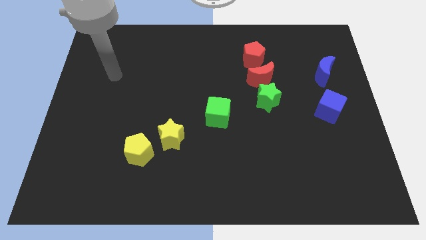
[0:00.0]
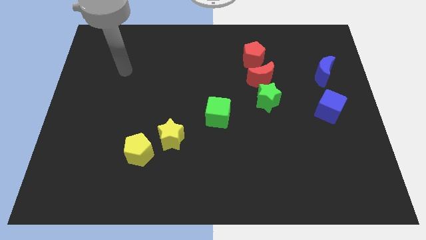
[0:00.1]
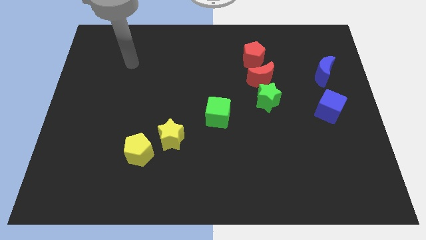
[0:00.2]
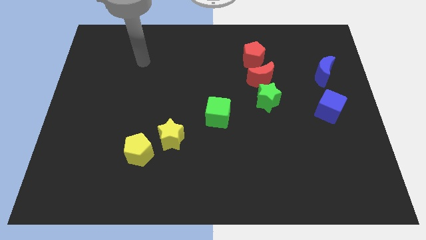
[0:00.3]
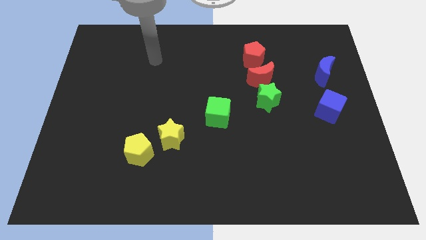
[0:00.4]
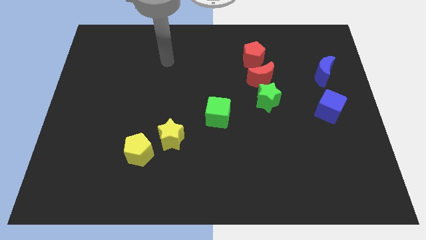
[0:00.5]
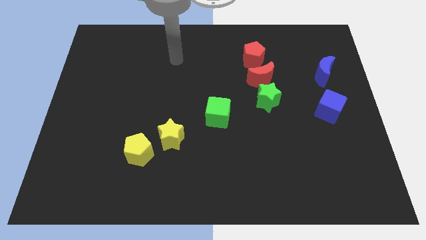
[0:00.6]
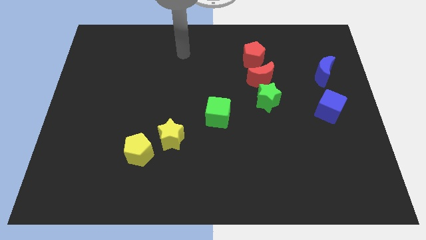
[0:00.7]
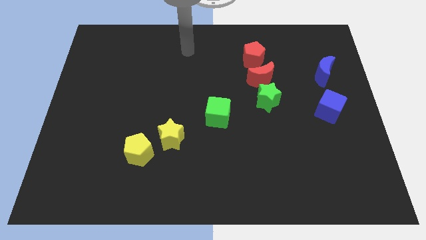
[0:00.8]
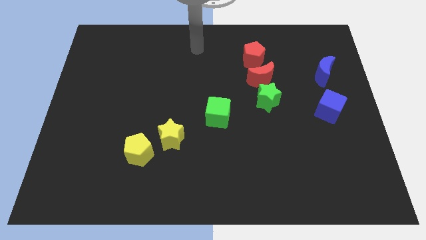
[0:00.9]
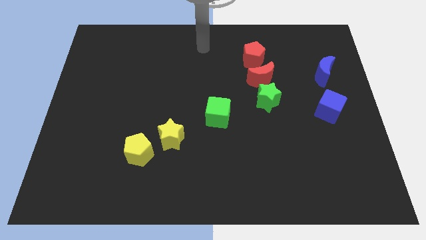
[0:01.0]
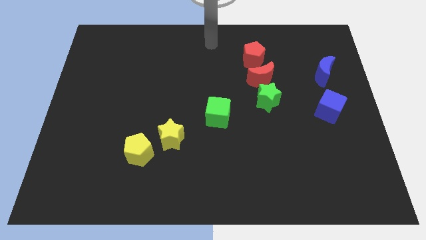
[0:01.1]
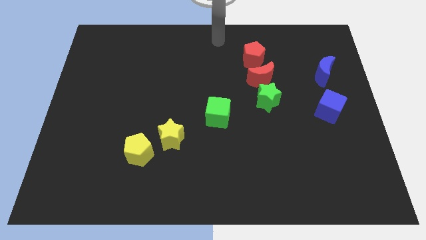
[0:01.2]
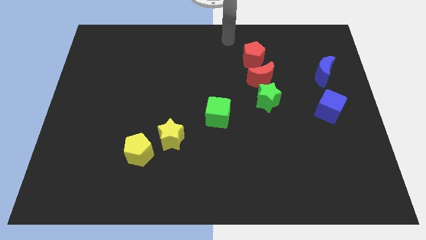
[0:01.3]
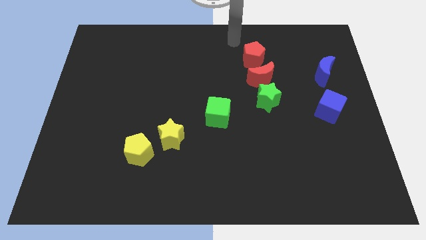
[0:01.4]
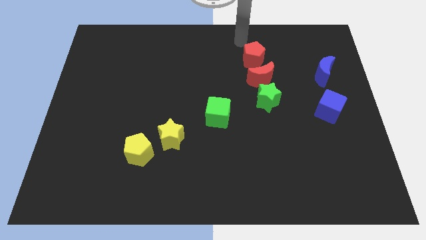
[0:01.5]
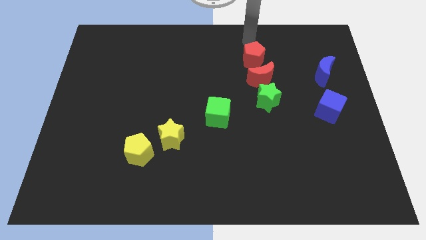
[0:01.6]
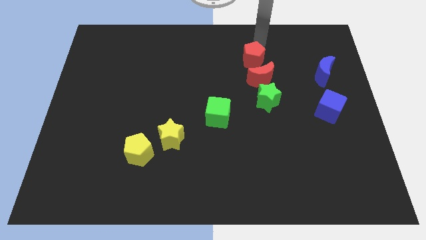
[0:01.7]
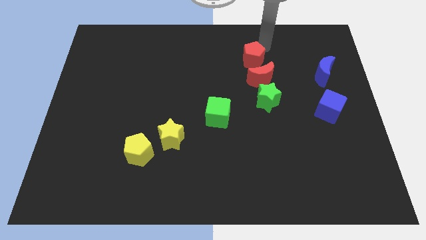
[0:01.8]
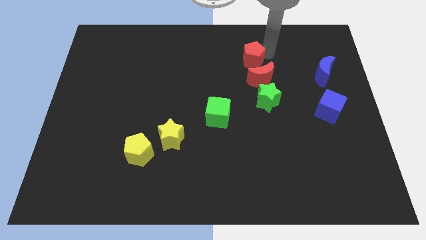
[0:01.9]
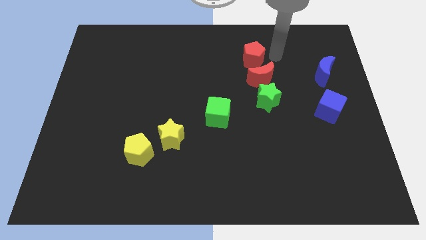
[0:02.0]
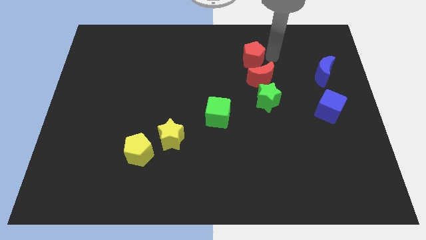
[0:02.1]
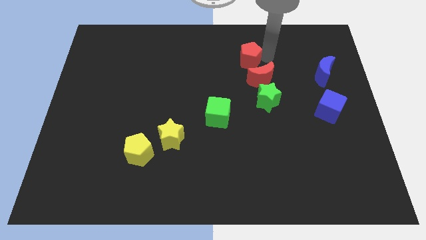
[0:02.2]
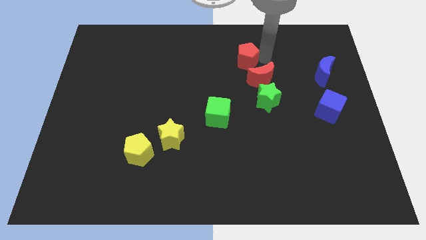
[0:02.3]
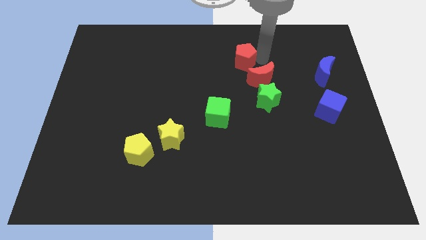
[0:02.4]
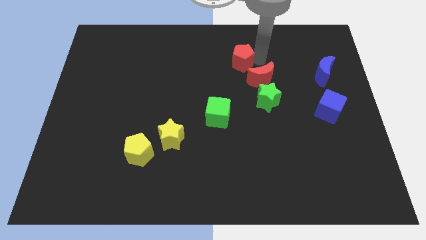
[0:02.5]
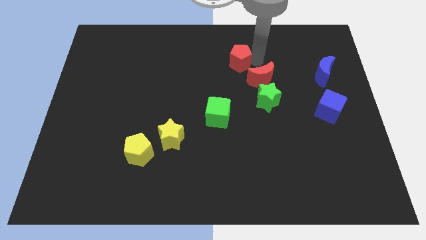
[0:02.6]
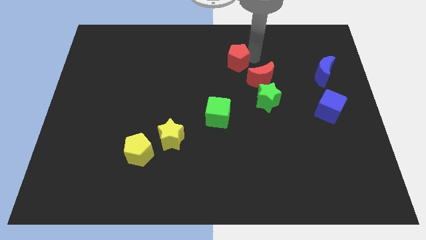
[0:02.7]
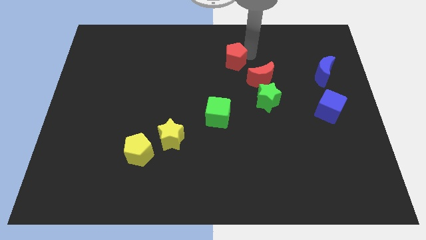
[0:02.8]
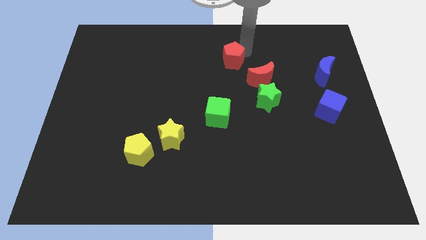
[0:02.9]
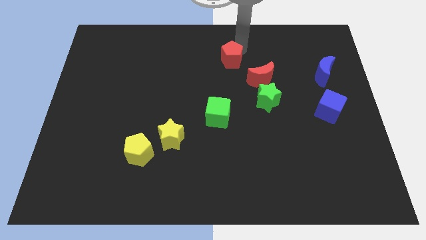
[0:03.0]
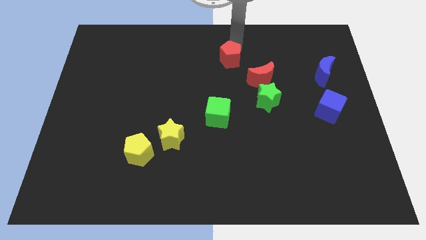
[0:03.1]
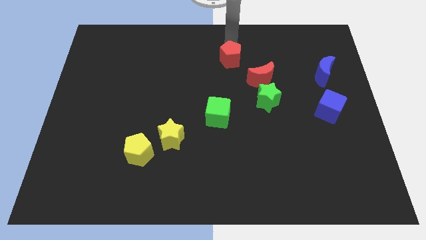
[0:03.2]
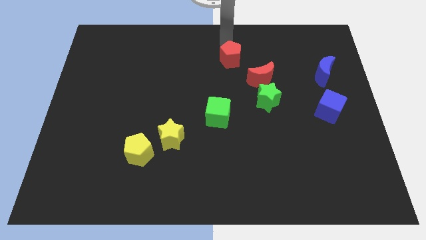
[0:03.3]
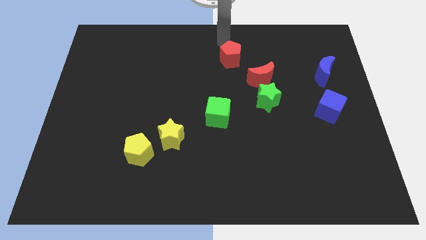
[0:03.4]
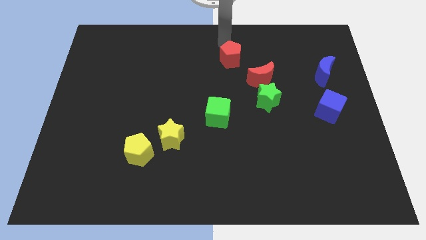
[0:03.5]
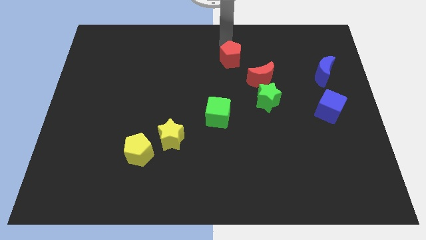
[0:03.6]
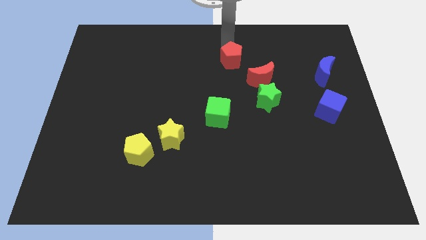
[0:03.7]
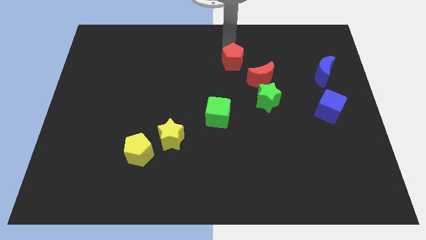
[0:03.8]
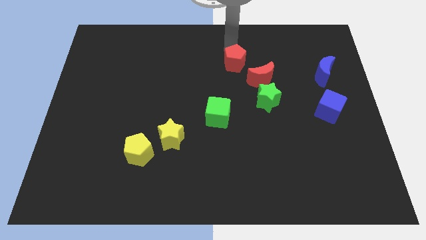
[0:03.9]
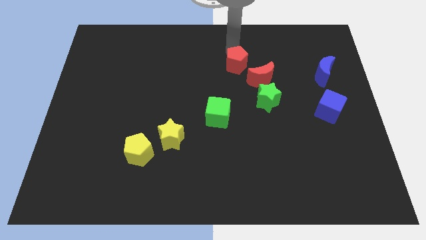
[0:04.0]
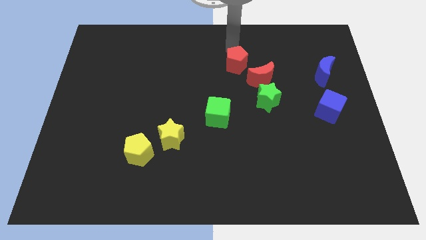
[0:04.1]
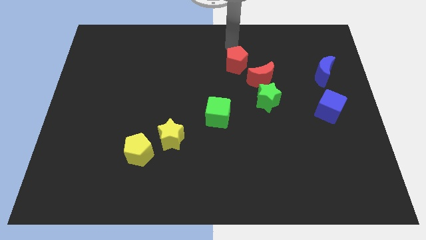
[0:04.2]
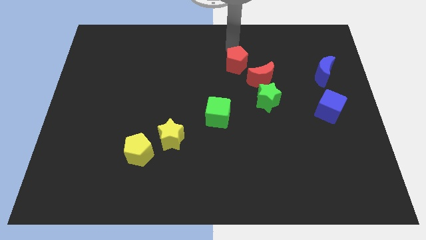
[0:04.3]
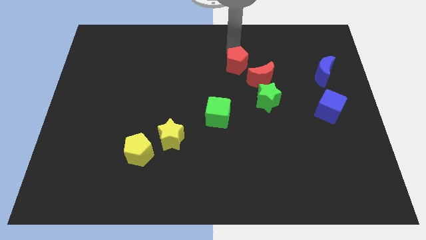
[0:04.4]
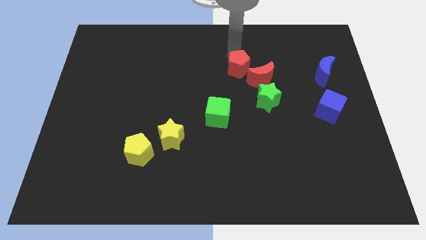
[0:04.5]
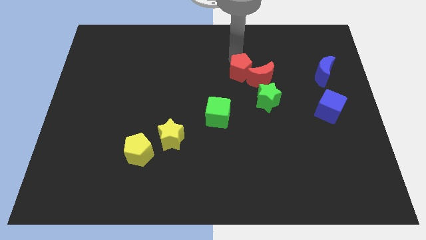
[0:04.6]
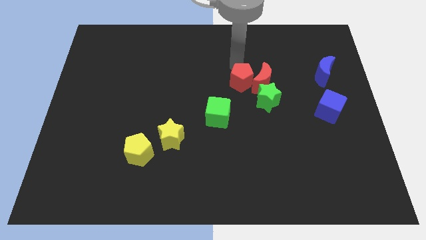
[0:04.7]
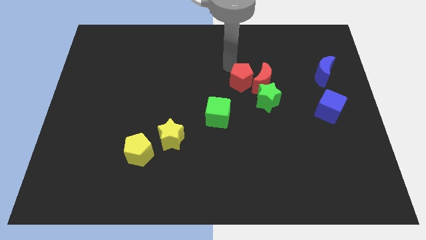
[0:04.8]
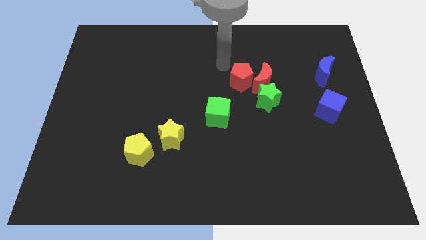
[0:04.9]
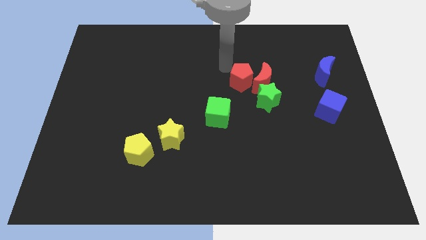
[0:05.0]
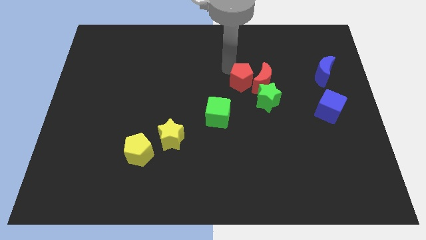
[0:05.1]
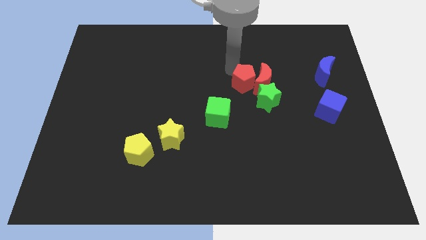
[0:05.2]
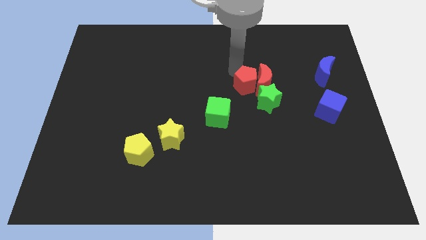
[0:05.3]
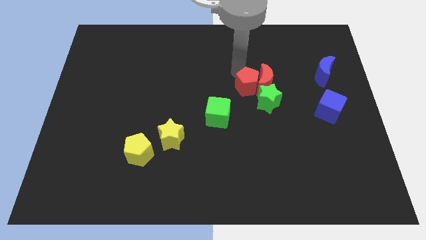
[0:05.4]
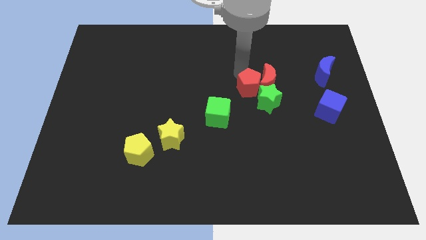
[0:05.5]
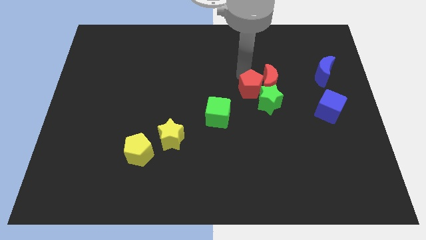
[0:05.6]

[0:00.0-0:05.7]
slide the red pentagon to the green star

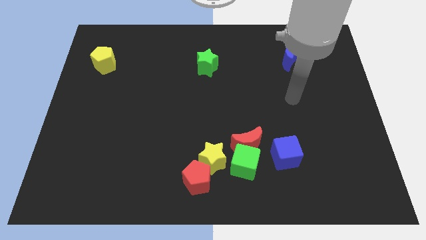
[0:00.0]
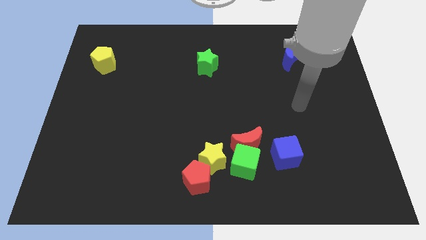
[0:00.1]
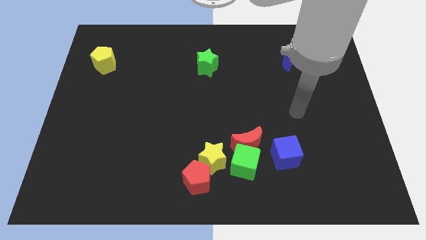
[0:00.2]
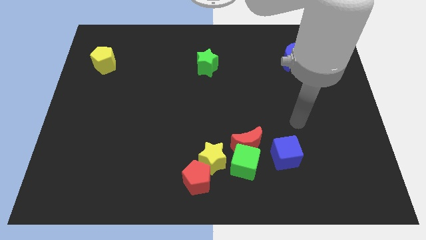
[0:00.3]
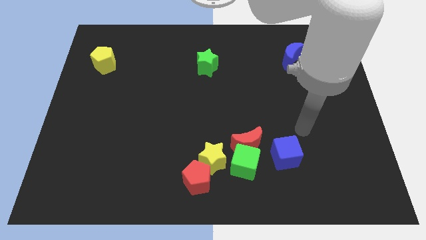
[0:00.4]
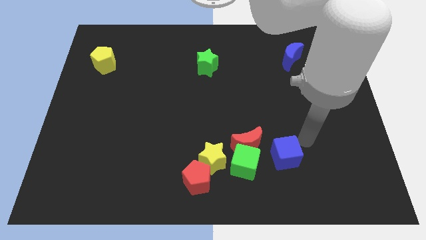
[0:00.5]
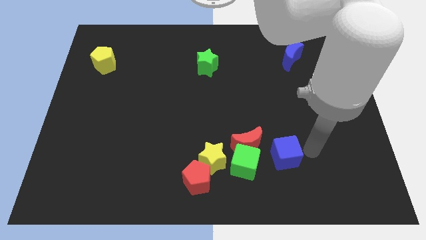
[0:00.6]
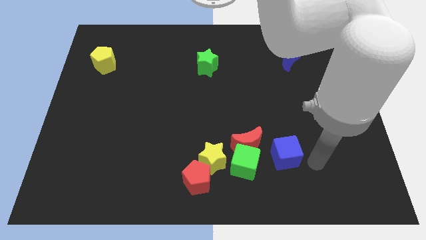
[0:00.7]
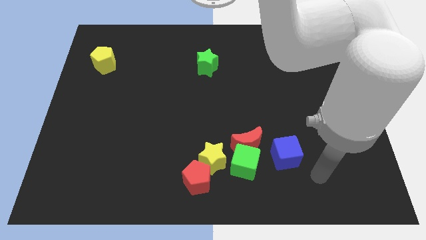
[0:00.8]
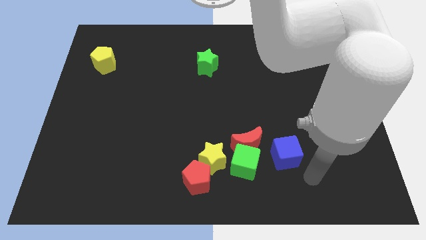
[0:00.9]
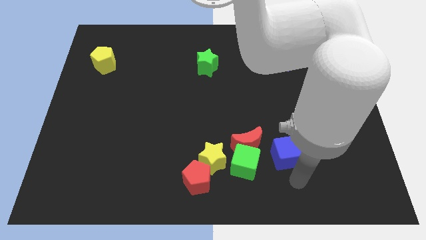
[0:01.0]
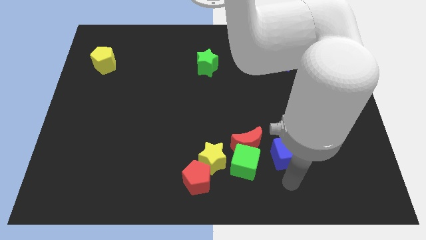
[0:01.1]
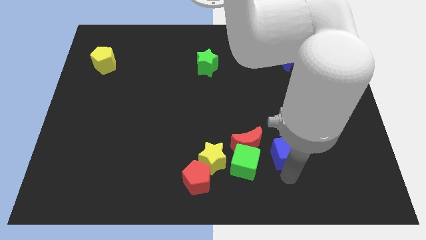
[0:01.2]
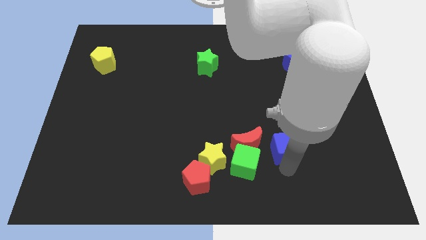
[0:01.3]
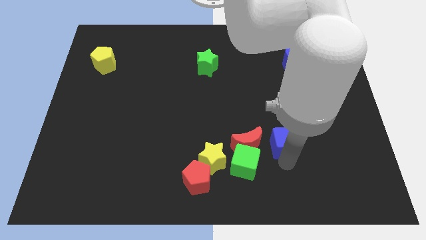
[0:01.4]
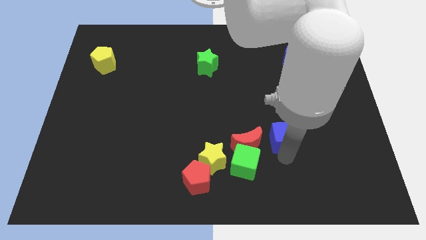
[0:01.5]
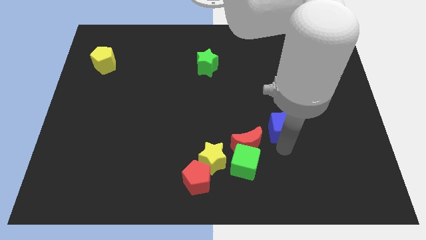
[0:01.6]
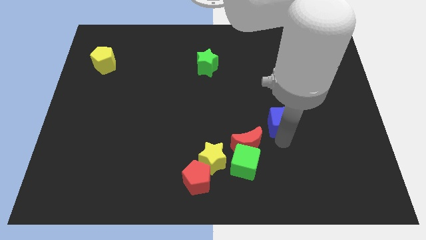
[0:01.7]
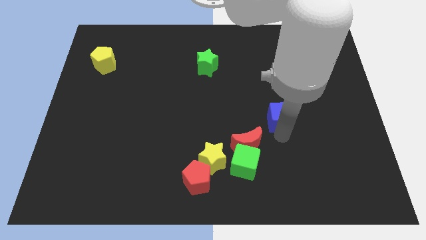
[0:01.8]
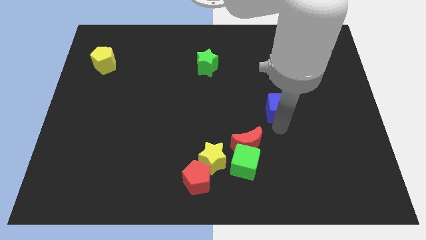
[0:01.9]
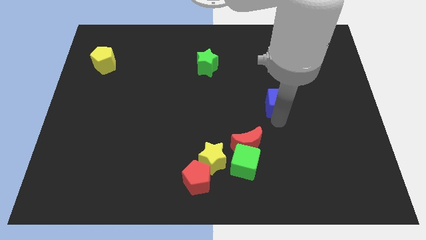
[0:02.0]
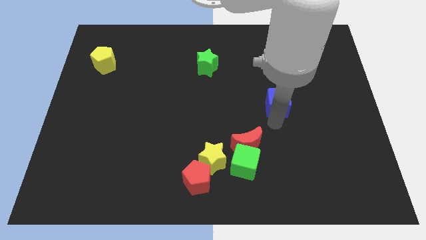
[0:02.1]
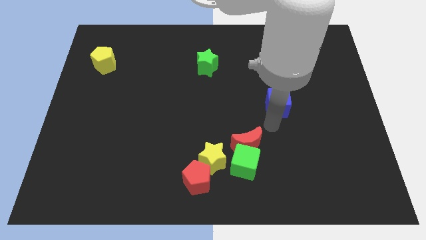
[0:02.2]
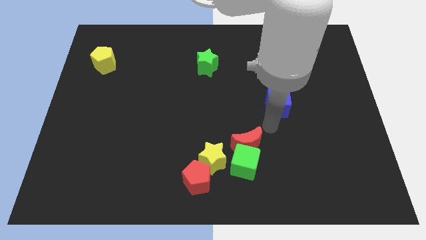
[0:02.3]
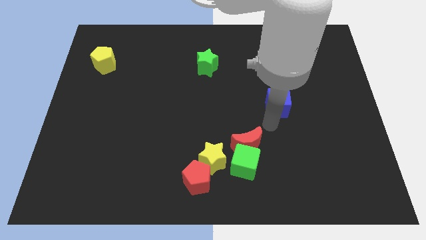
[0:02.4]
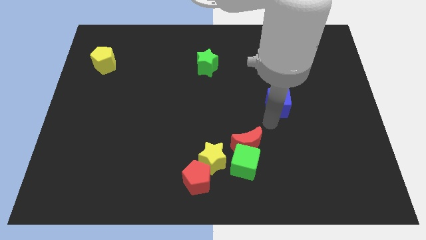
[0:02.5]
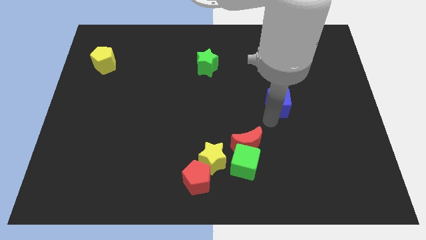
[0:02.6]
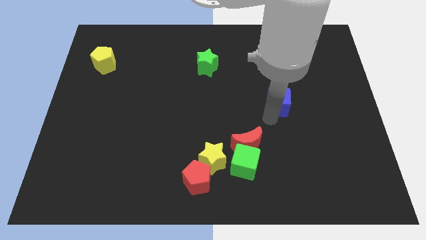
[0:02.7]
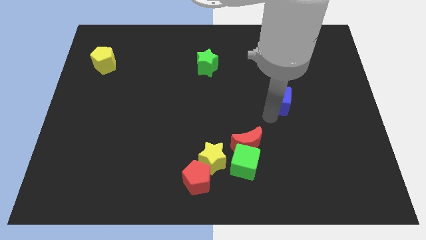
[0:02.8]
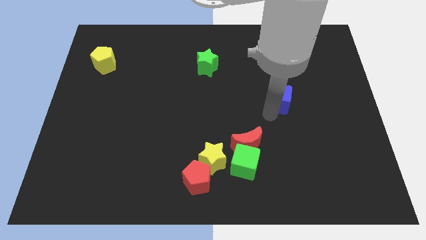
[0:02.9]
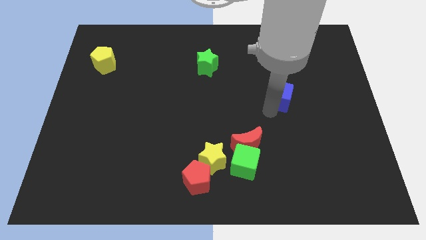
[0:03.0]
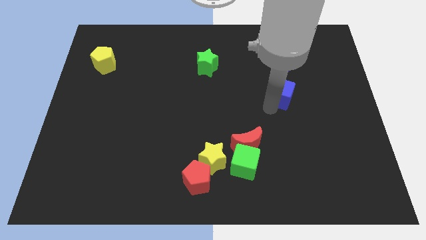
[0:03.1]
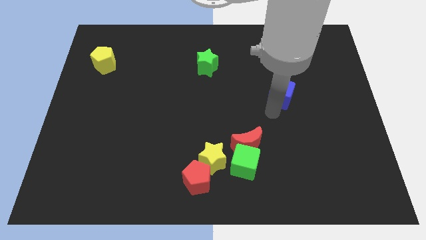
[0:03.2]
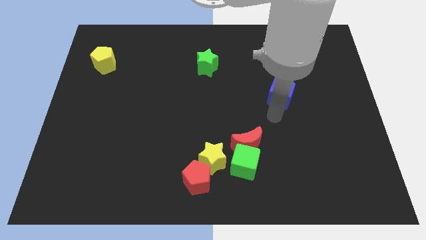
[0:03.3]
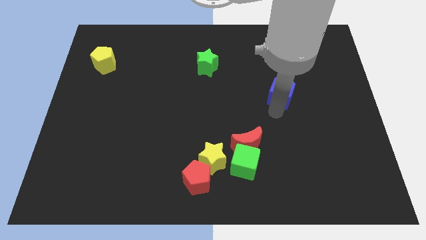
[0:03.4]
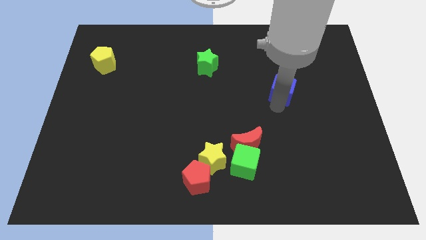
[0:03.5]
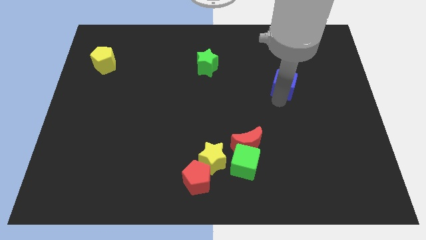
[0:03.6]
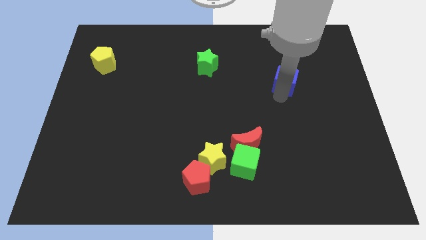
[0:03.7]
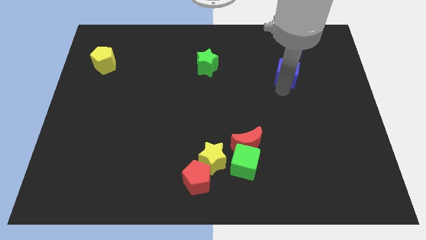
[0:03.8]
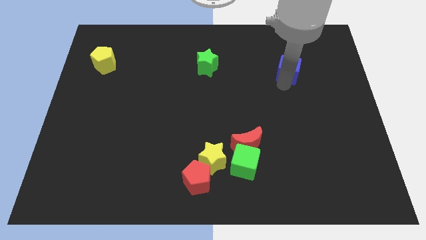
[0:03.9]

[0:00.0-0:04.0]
put the blue cube close to the blue moon
